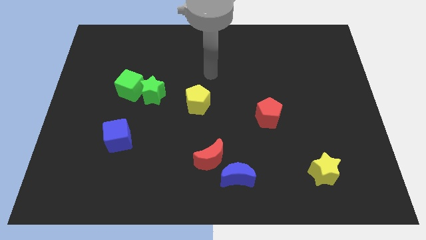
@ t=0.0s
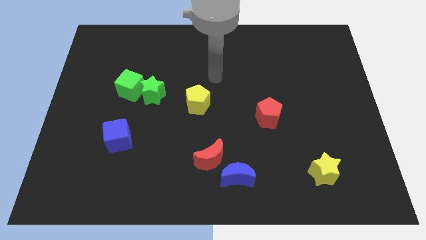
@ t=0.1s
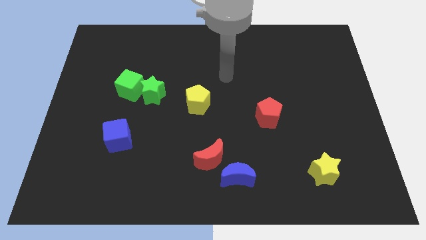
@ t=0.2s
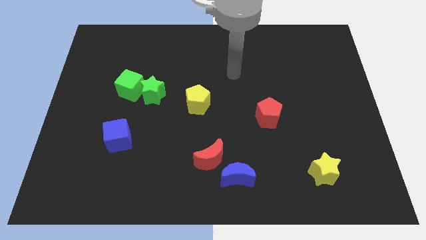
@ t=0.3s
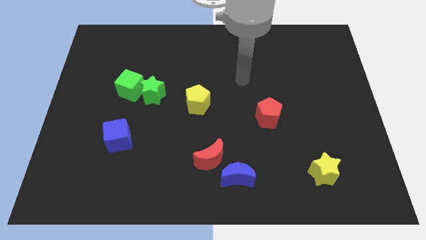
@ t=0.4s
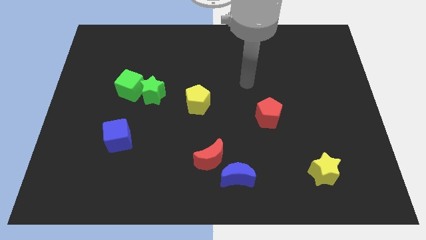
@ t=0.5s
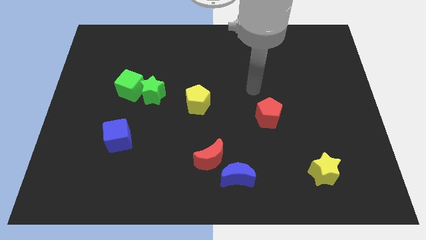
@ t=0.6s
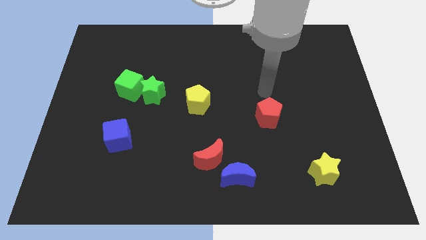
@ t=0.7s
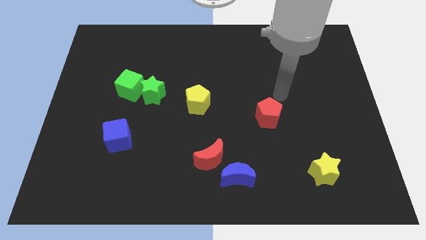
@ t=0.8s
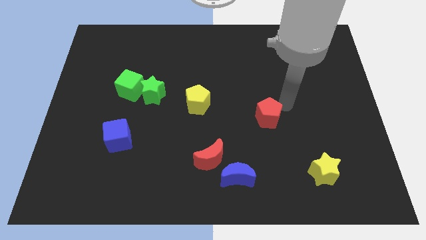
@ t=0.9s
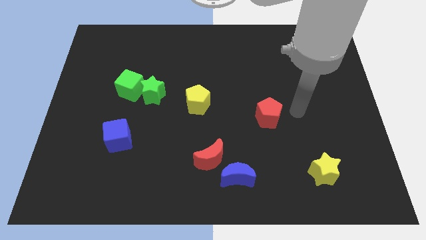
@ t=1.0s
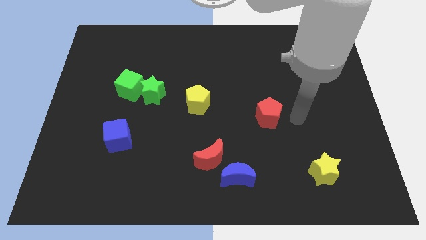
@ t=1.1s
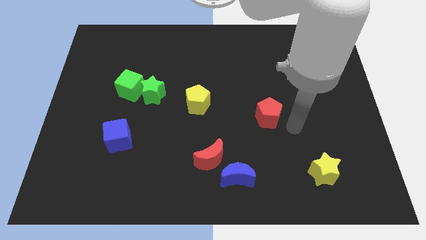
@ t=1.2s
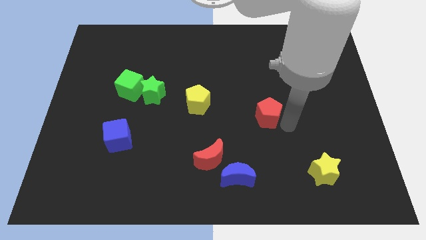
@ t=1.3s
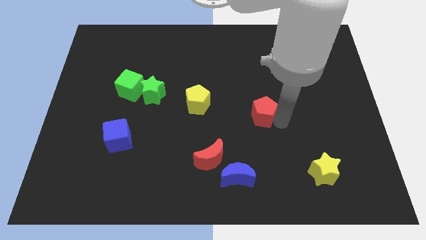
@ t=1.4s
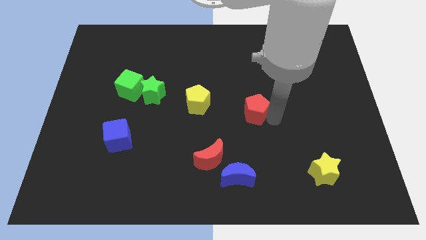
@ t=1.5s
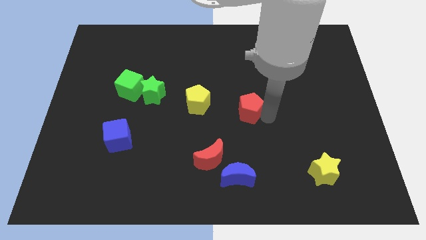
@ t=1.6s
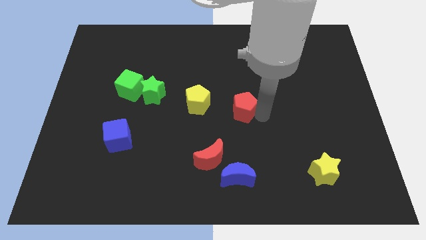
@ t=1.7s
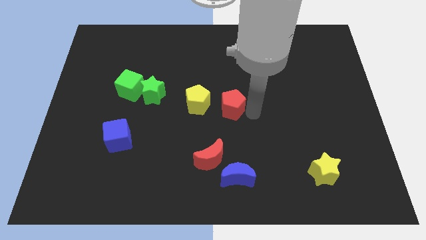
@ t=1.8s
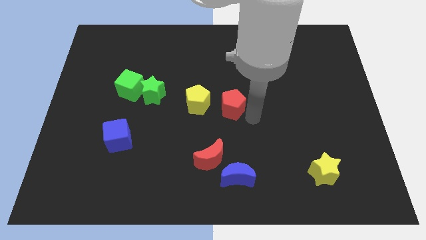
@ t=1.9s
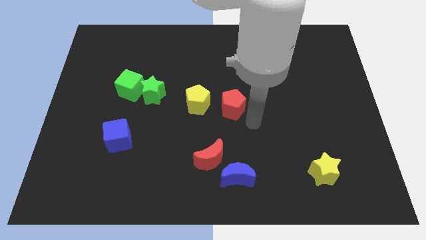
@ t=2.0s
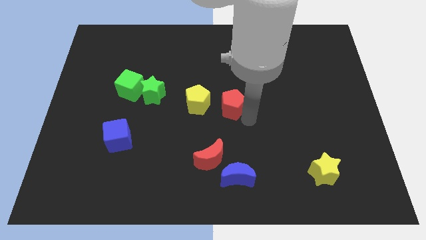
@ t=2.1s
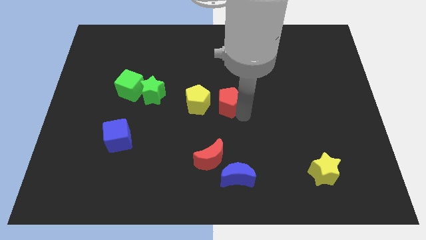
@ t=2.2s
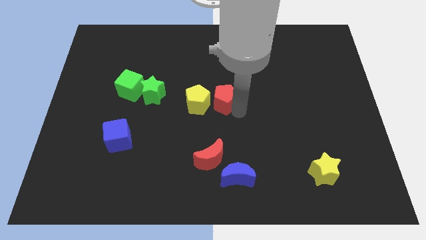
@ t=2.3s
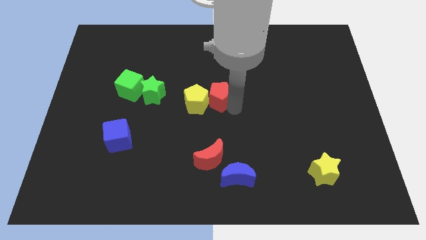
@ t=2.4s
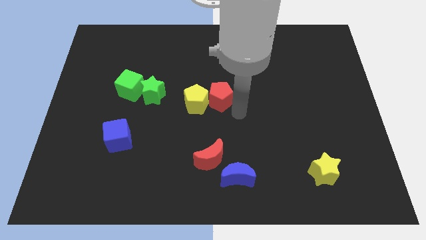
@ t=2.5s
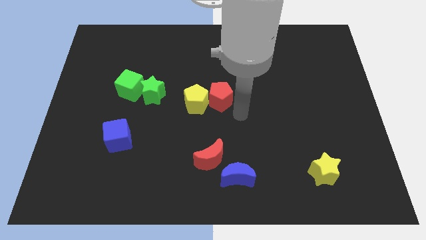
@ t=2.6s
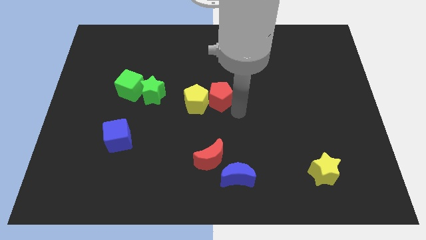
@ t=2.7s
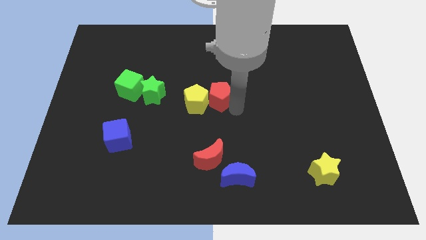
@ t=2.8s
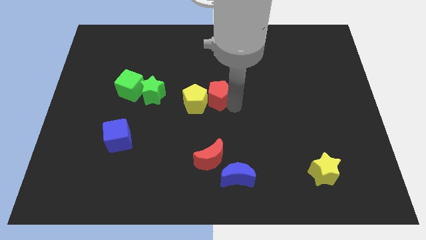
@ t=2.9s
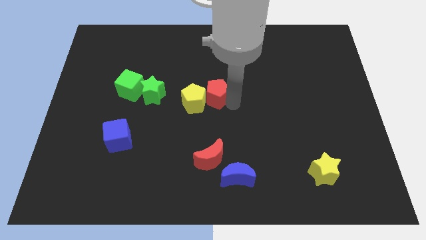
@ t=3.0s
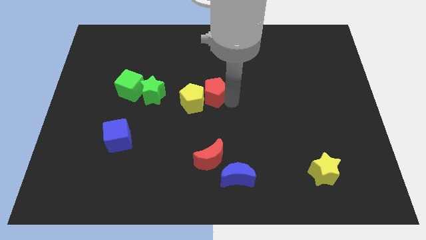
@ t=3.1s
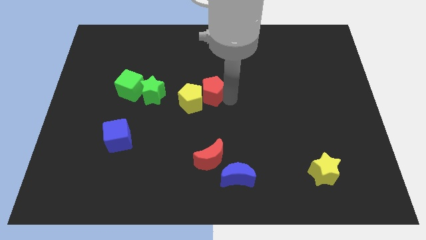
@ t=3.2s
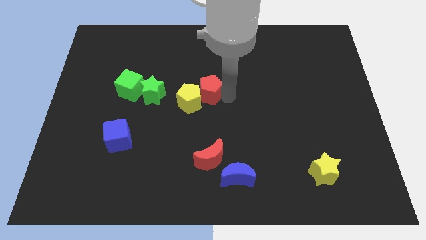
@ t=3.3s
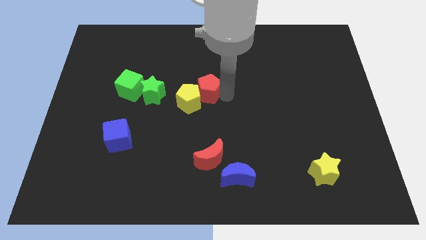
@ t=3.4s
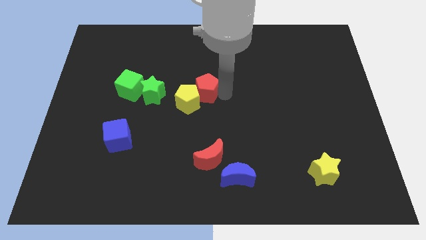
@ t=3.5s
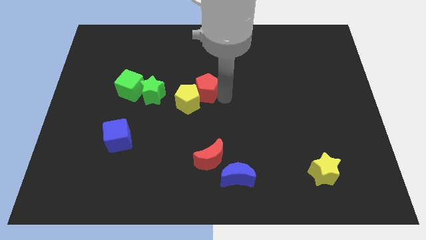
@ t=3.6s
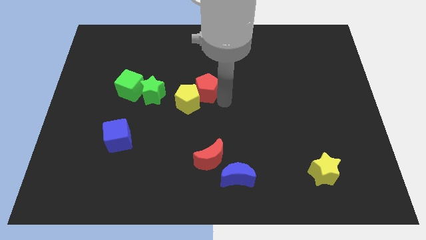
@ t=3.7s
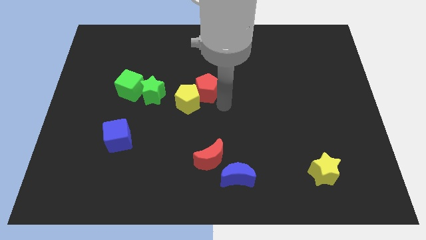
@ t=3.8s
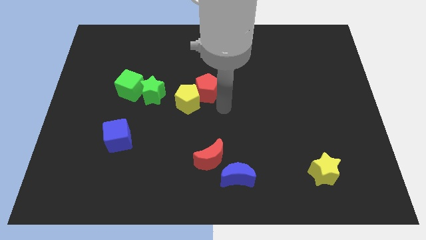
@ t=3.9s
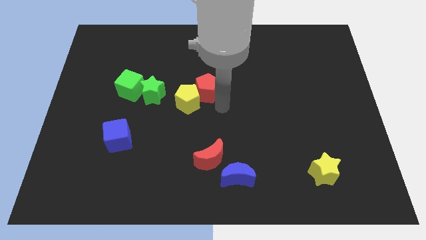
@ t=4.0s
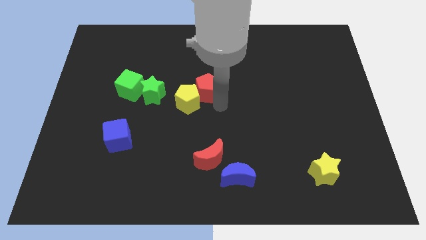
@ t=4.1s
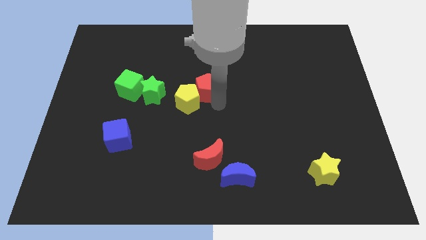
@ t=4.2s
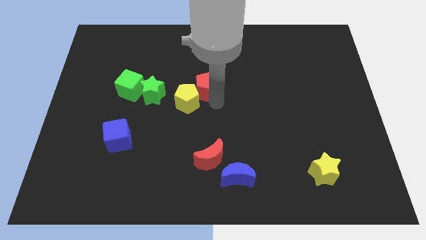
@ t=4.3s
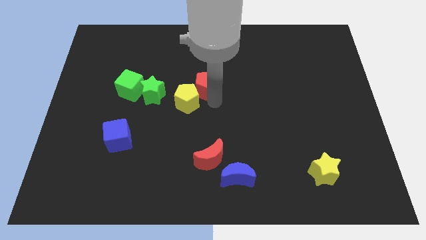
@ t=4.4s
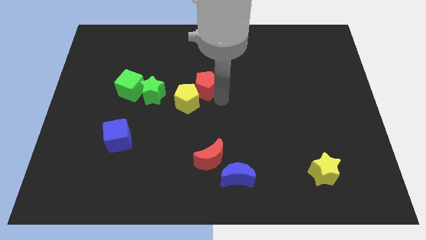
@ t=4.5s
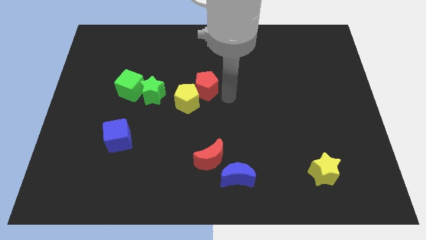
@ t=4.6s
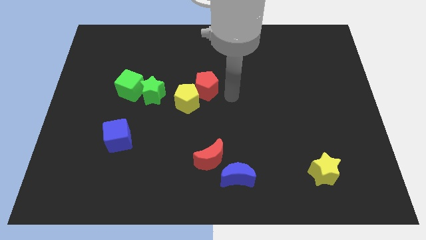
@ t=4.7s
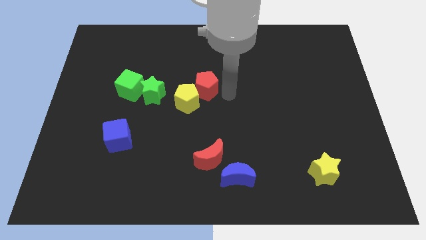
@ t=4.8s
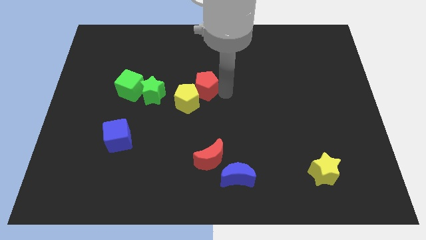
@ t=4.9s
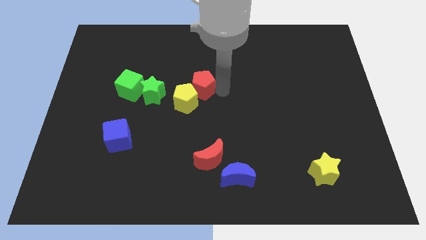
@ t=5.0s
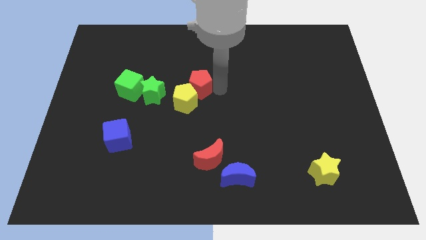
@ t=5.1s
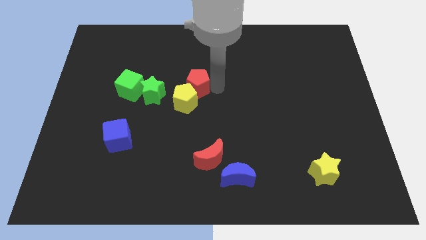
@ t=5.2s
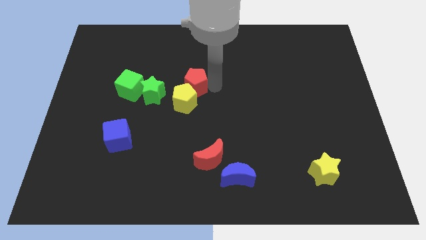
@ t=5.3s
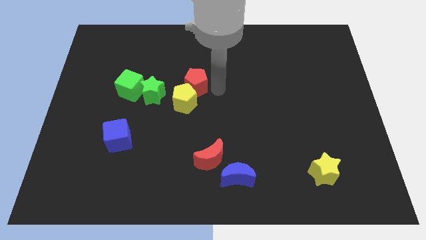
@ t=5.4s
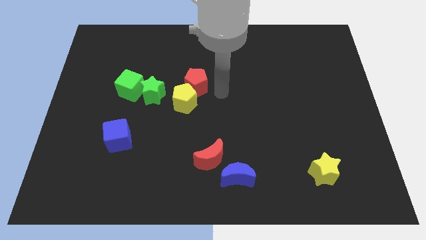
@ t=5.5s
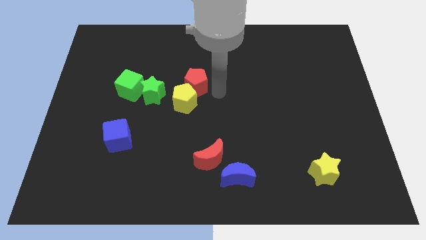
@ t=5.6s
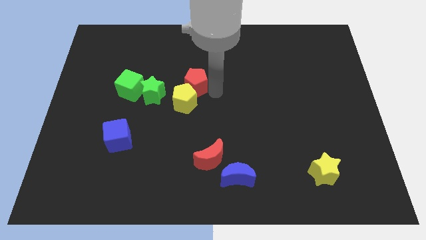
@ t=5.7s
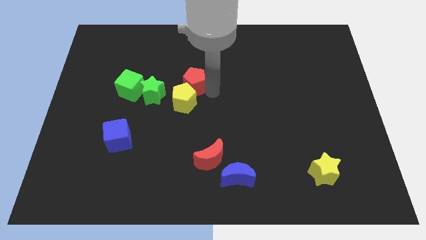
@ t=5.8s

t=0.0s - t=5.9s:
push the red pentagon to the top right of the green star

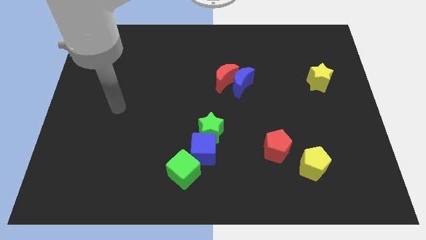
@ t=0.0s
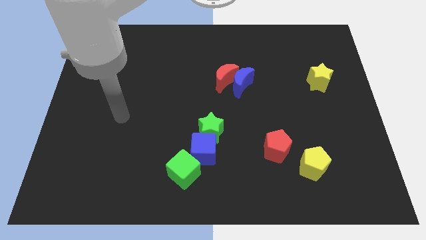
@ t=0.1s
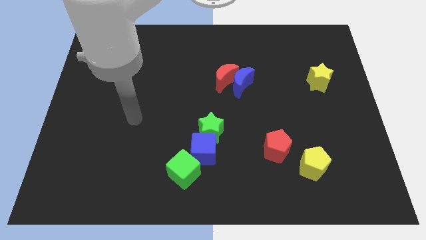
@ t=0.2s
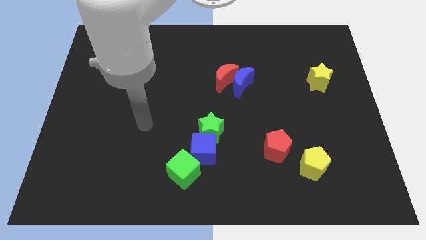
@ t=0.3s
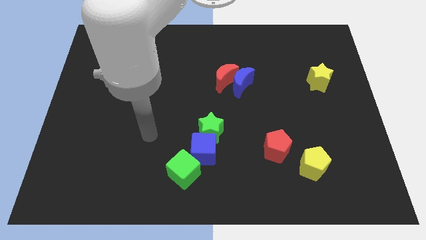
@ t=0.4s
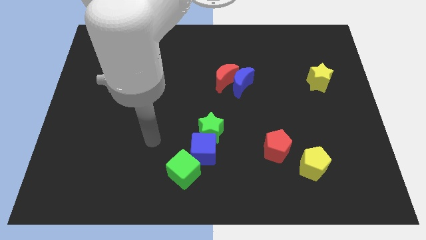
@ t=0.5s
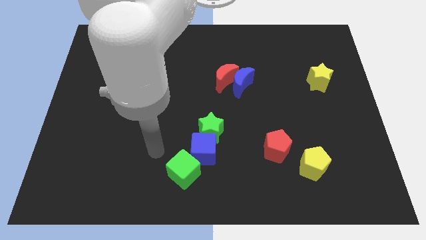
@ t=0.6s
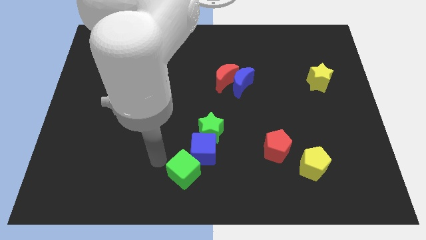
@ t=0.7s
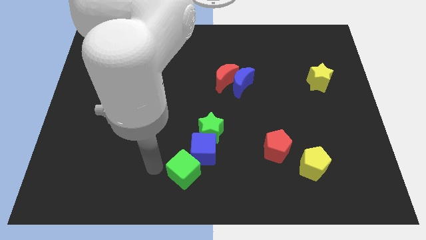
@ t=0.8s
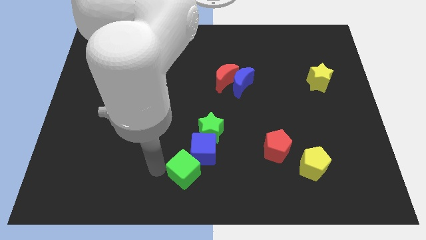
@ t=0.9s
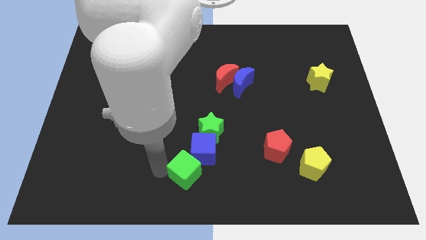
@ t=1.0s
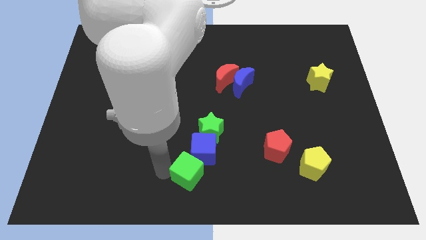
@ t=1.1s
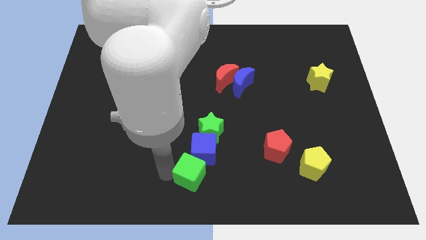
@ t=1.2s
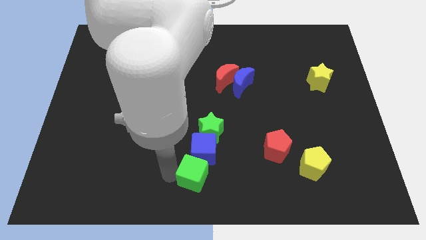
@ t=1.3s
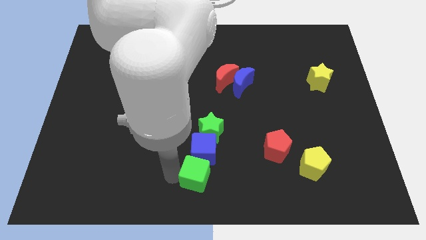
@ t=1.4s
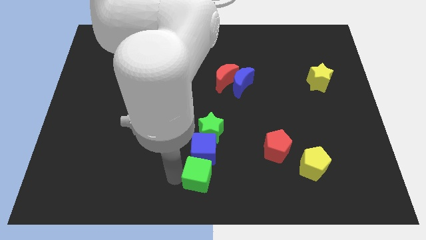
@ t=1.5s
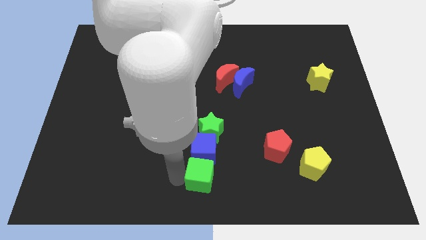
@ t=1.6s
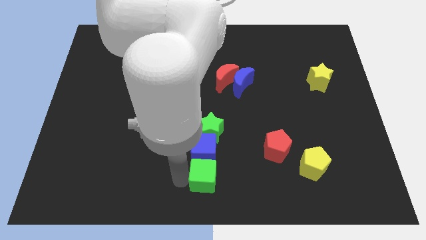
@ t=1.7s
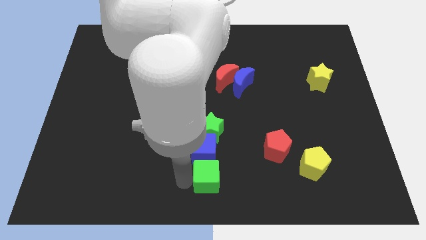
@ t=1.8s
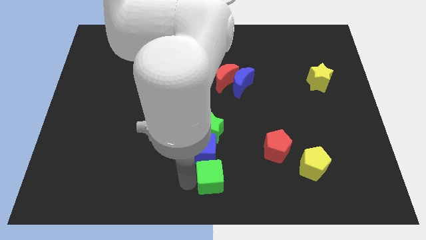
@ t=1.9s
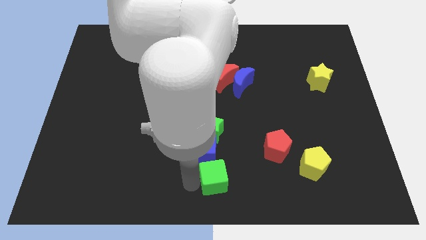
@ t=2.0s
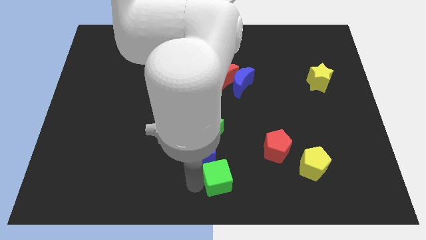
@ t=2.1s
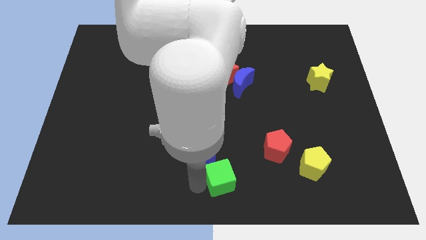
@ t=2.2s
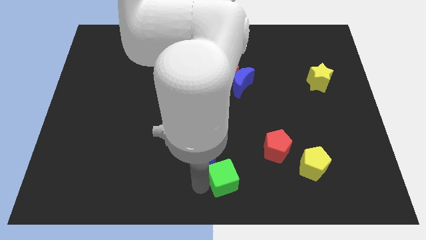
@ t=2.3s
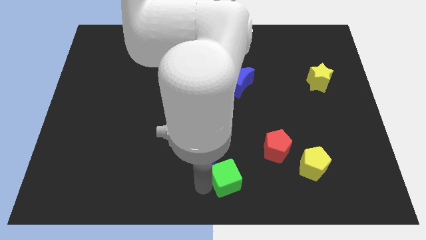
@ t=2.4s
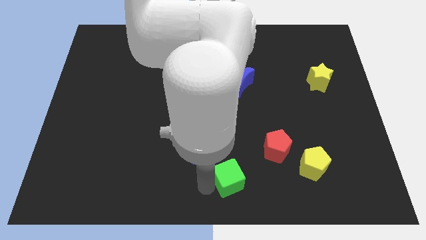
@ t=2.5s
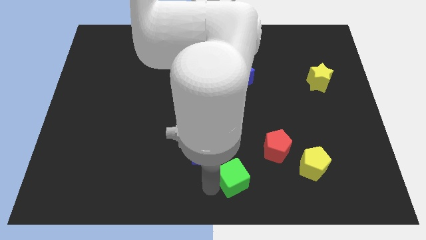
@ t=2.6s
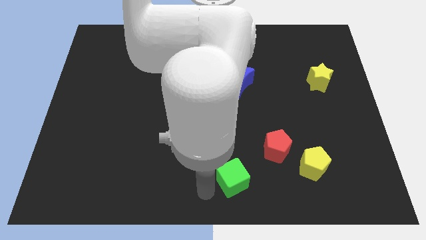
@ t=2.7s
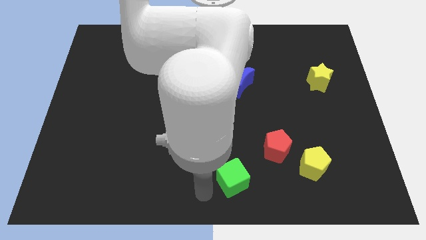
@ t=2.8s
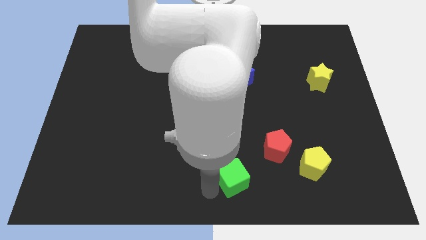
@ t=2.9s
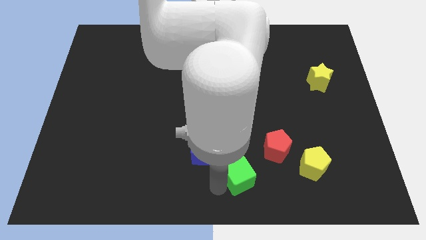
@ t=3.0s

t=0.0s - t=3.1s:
move the green cube left of the yellow pentagon
